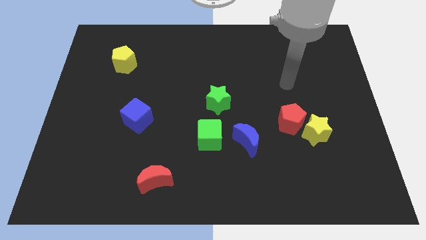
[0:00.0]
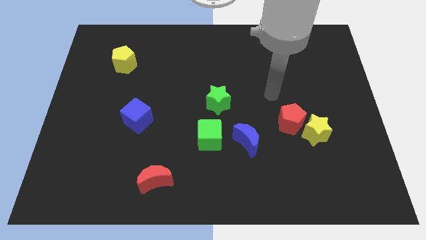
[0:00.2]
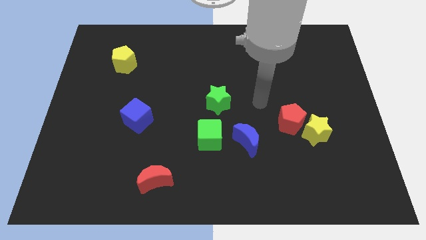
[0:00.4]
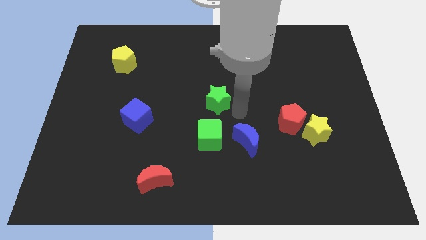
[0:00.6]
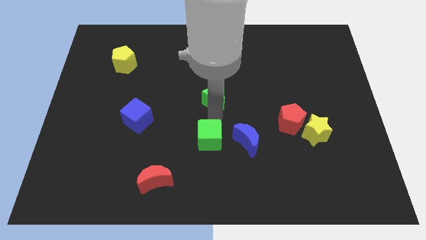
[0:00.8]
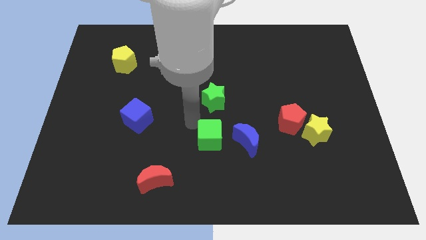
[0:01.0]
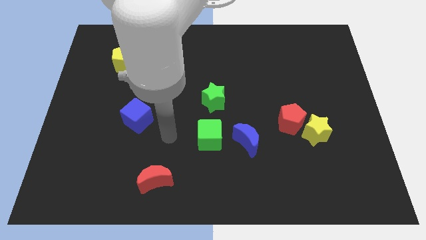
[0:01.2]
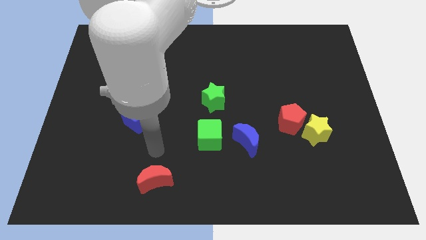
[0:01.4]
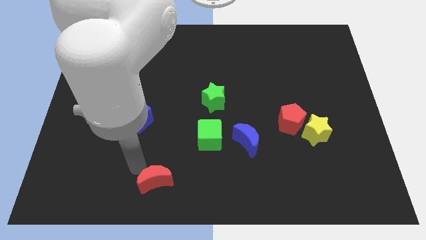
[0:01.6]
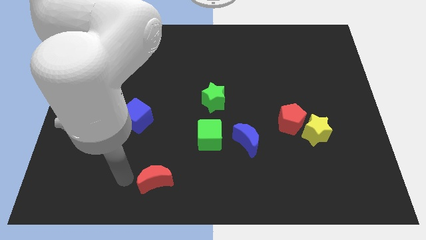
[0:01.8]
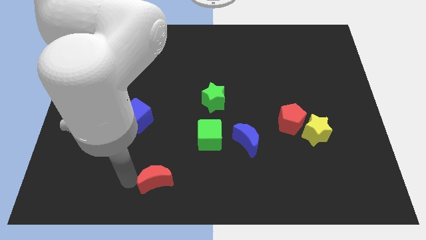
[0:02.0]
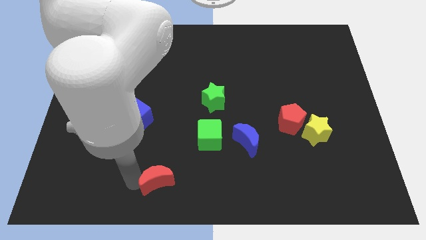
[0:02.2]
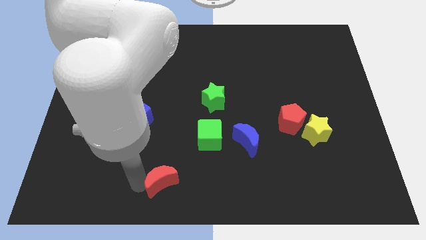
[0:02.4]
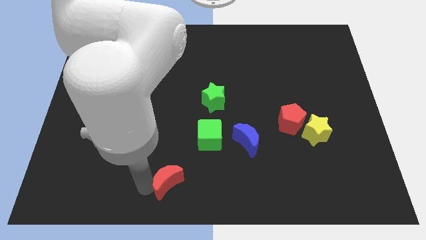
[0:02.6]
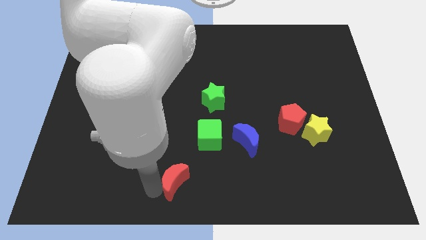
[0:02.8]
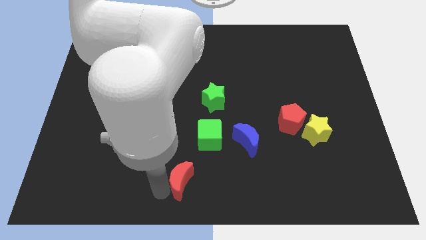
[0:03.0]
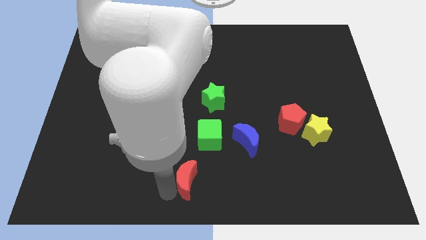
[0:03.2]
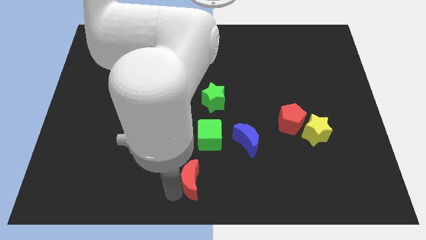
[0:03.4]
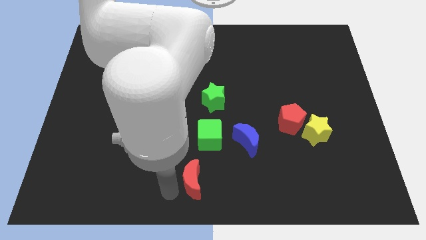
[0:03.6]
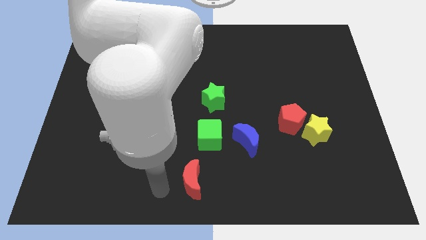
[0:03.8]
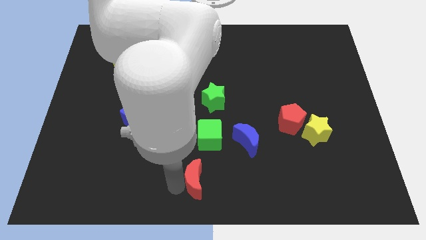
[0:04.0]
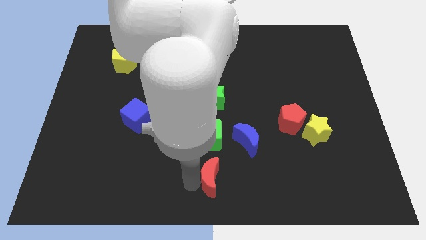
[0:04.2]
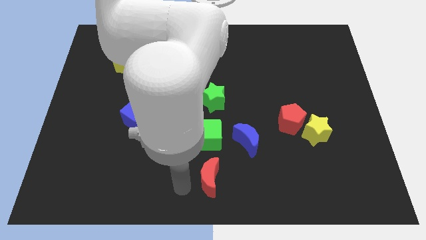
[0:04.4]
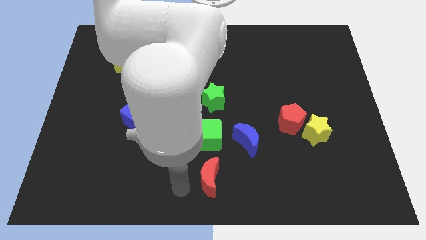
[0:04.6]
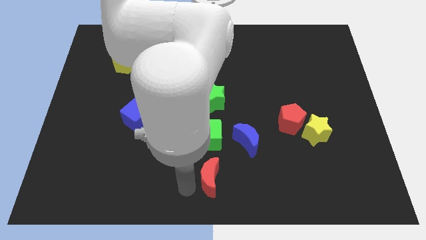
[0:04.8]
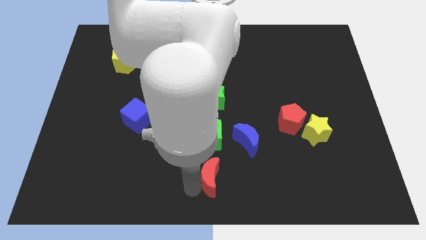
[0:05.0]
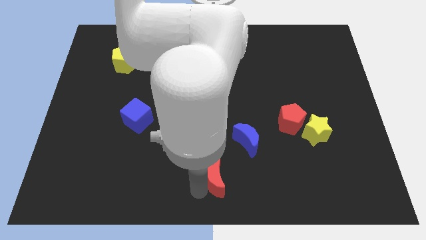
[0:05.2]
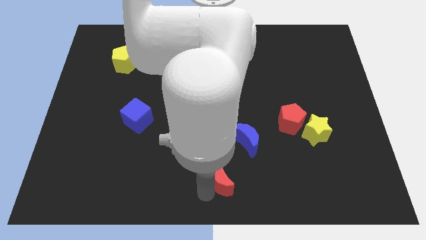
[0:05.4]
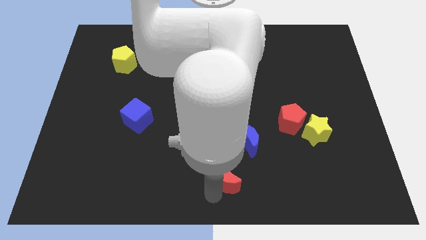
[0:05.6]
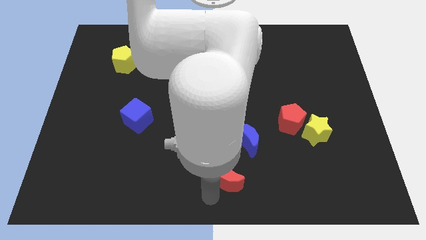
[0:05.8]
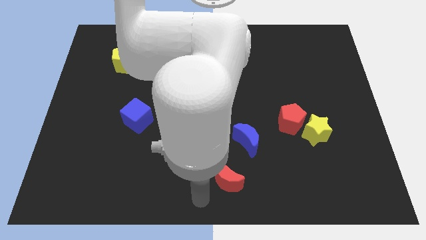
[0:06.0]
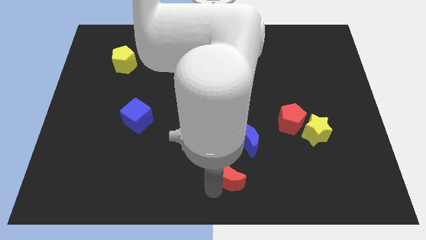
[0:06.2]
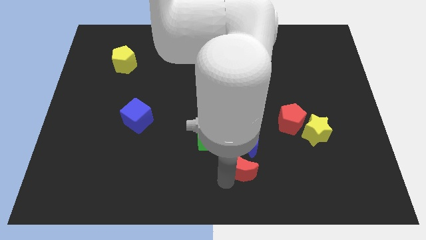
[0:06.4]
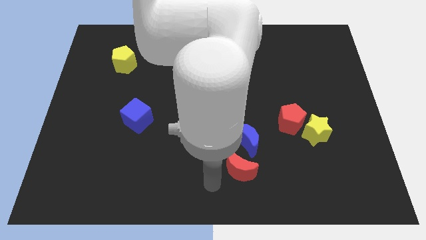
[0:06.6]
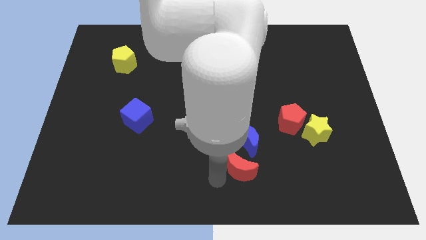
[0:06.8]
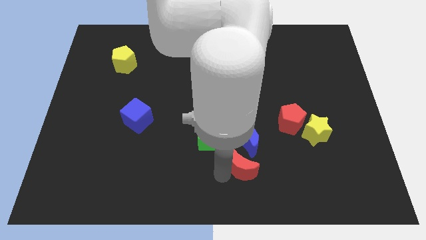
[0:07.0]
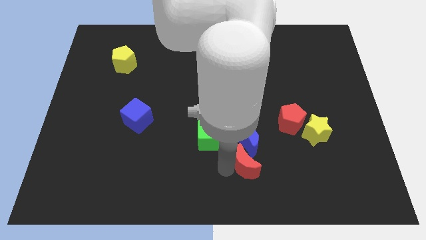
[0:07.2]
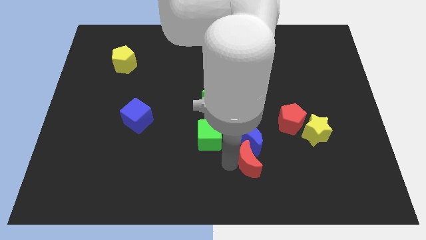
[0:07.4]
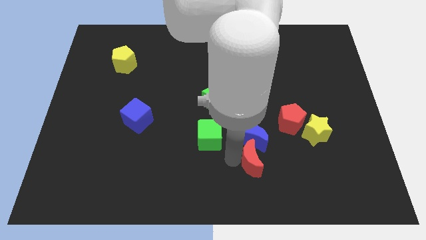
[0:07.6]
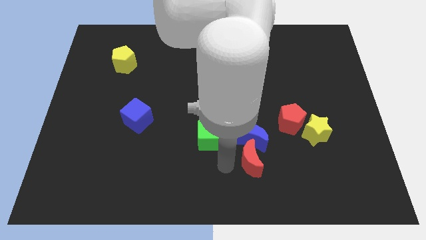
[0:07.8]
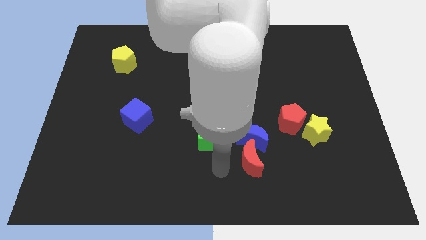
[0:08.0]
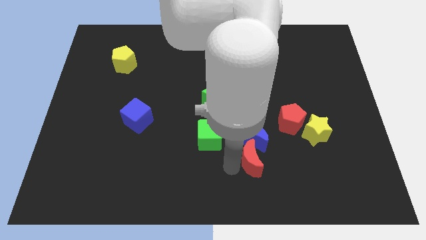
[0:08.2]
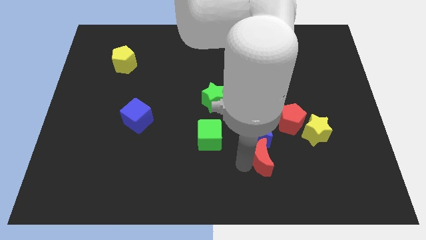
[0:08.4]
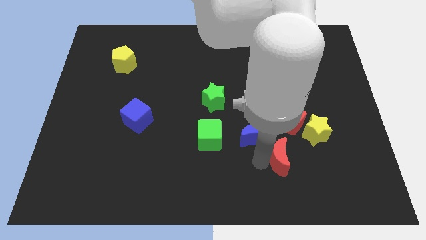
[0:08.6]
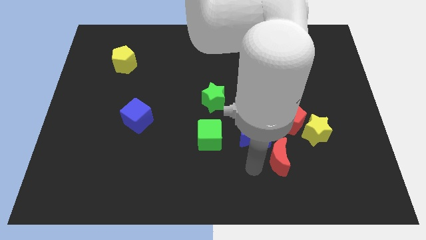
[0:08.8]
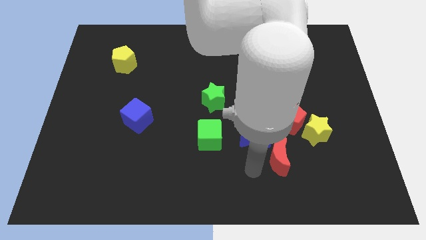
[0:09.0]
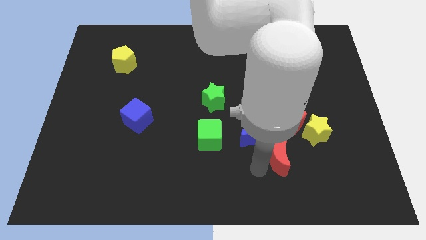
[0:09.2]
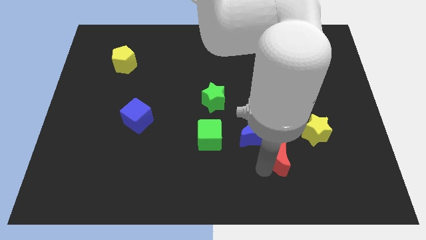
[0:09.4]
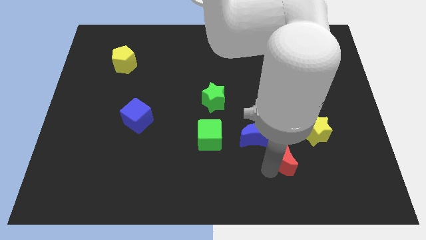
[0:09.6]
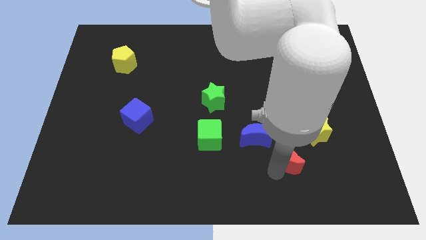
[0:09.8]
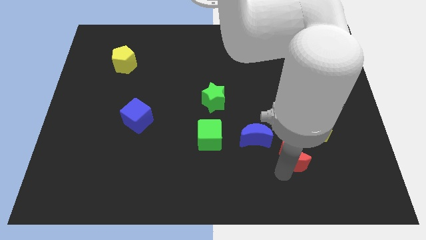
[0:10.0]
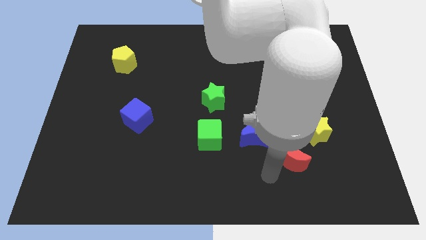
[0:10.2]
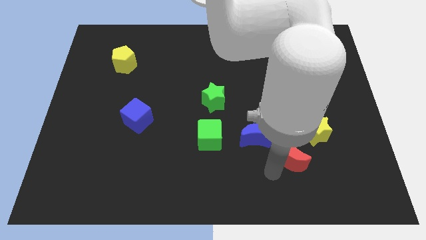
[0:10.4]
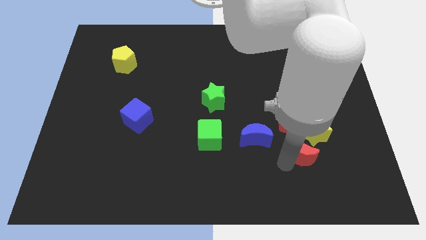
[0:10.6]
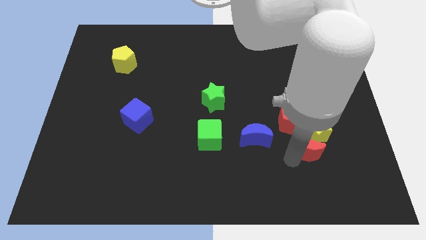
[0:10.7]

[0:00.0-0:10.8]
move the red moon diagonally down and to the right of the red pentagon

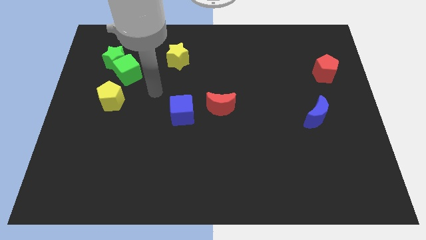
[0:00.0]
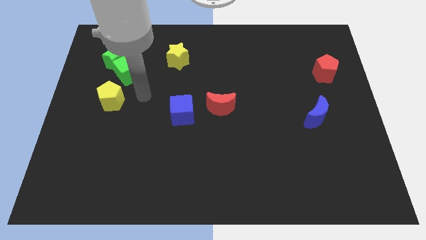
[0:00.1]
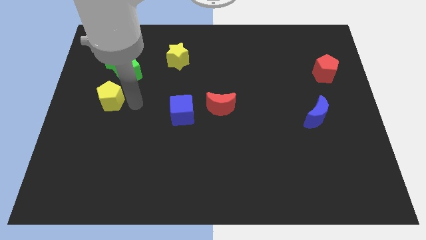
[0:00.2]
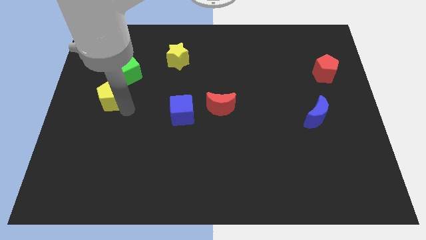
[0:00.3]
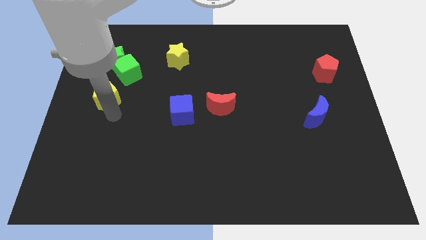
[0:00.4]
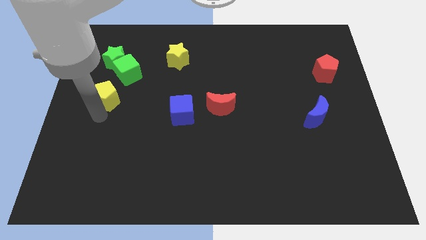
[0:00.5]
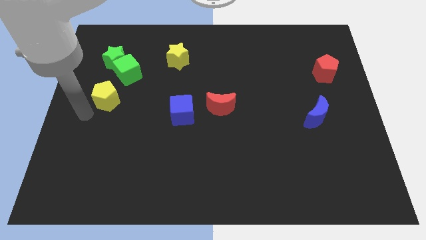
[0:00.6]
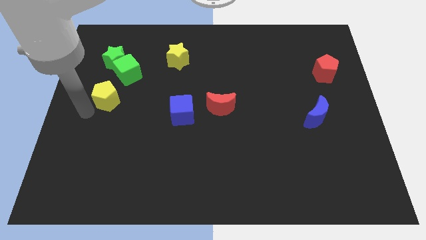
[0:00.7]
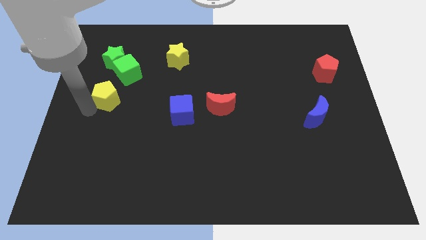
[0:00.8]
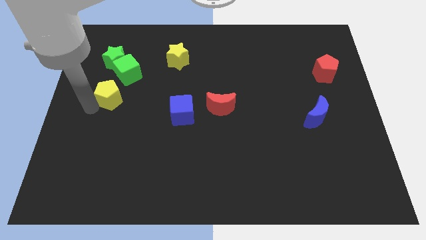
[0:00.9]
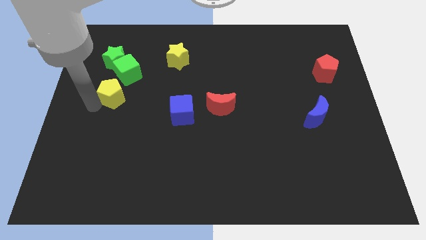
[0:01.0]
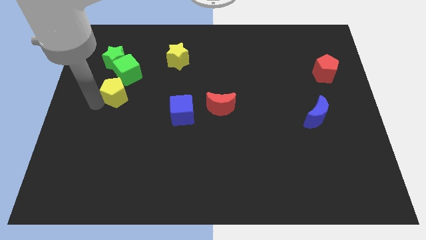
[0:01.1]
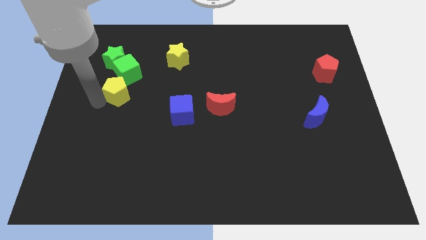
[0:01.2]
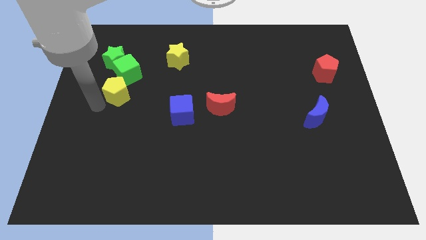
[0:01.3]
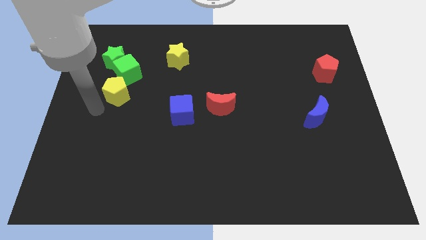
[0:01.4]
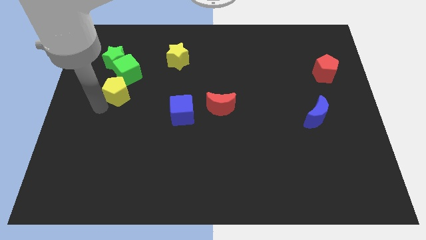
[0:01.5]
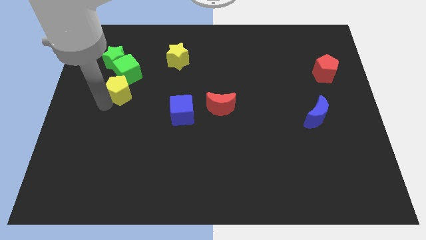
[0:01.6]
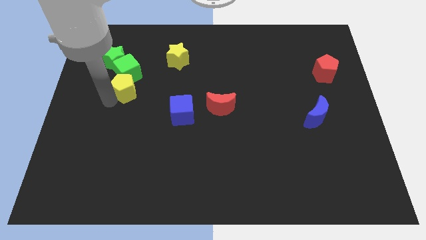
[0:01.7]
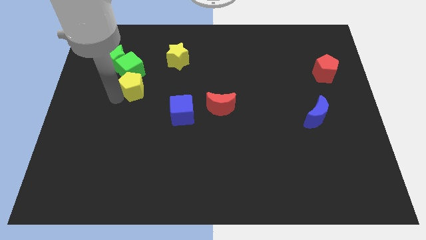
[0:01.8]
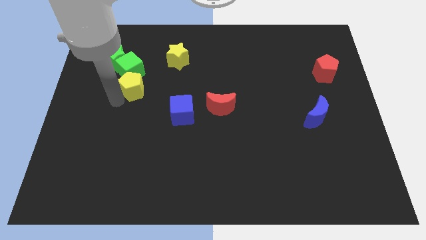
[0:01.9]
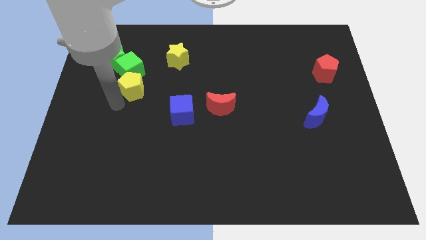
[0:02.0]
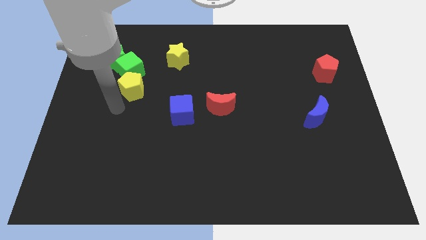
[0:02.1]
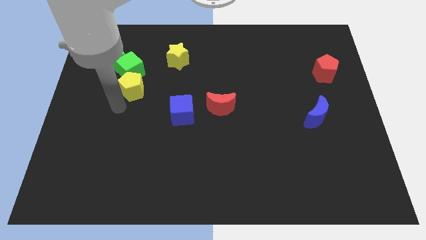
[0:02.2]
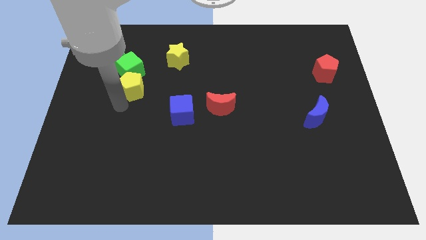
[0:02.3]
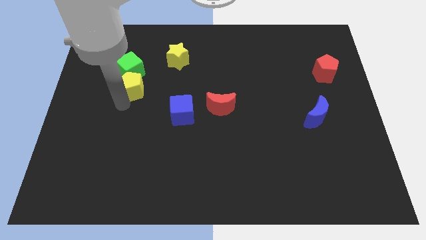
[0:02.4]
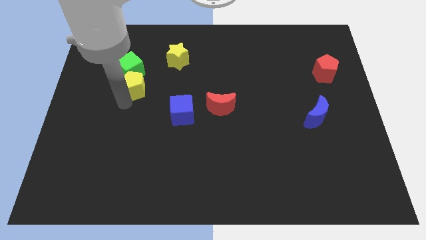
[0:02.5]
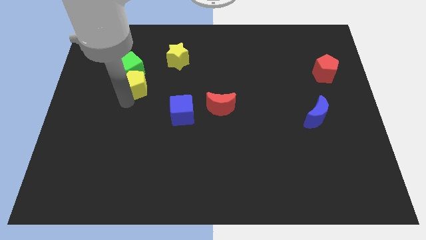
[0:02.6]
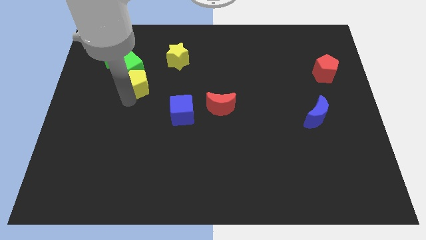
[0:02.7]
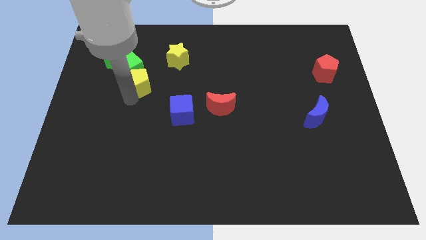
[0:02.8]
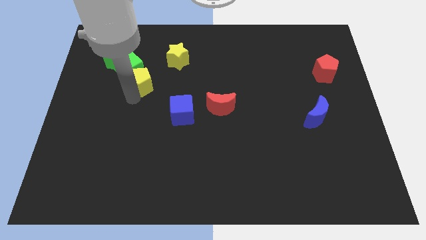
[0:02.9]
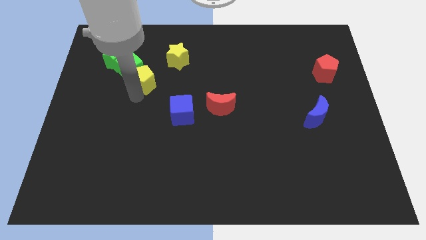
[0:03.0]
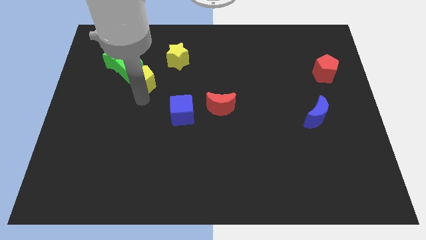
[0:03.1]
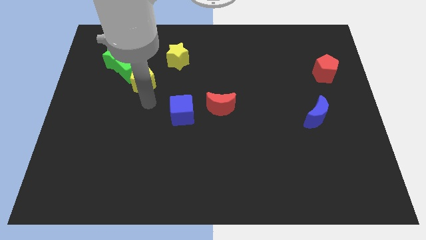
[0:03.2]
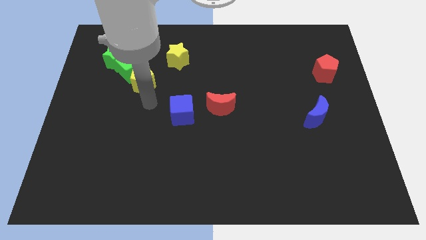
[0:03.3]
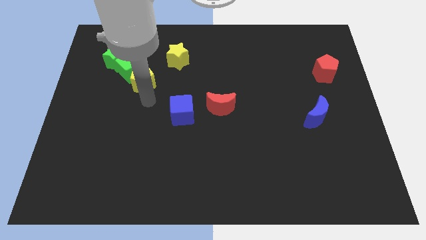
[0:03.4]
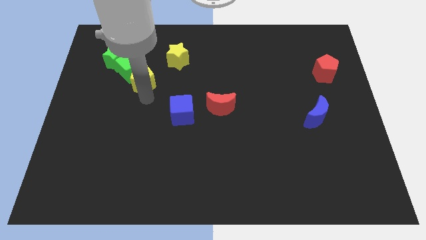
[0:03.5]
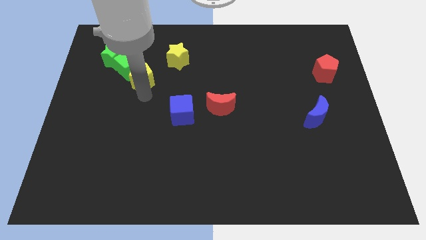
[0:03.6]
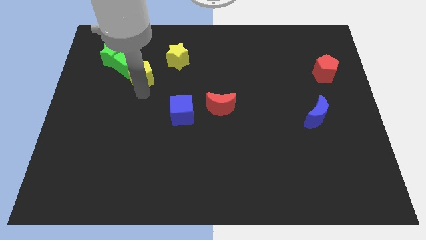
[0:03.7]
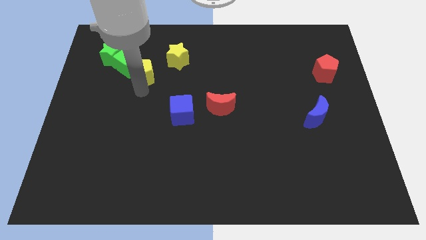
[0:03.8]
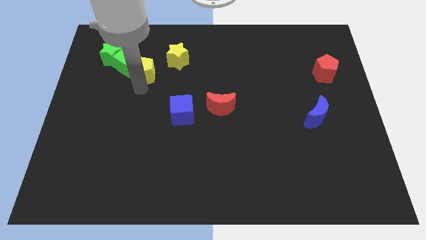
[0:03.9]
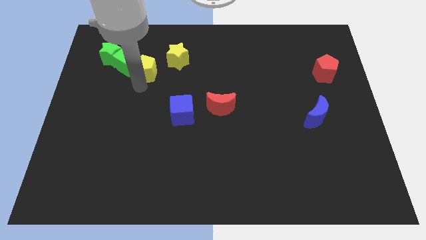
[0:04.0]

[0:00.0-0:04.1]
push the yellow pentagon to the left of the yellow star
